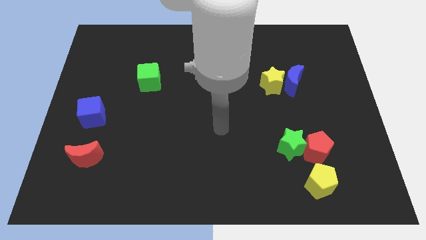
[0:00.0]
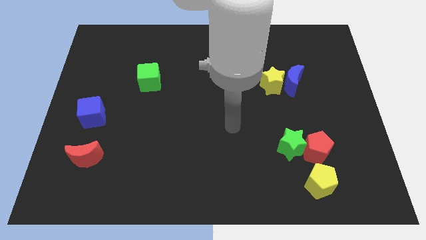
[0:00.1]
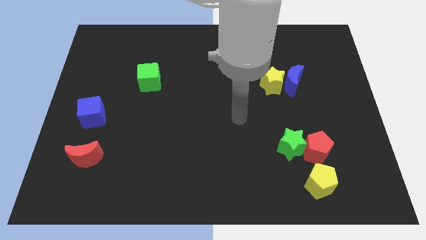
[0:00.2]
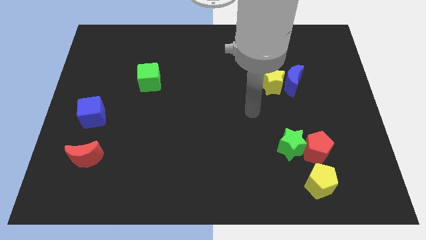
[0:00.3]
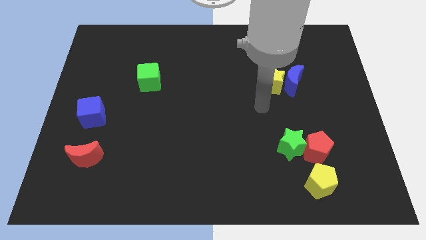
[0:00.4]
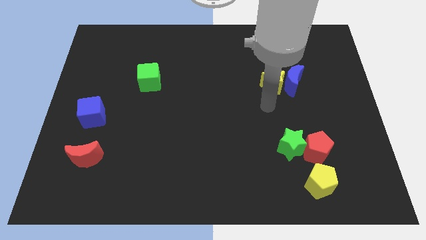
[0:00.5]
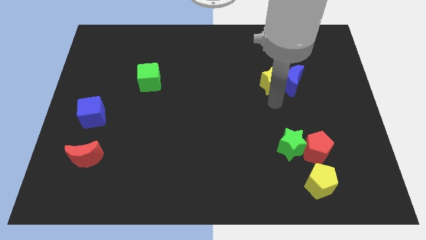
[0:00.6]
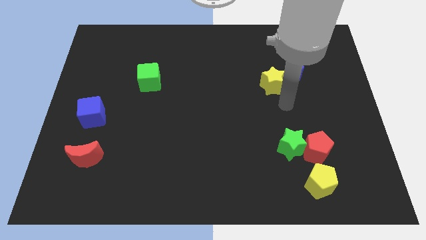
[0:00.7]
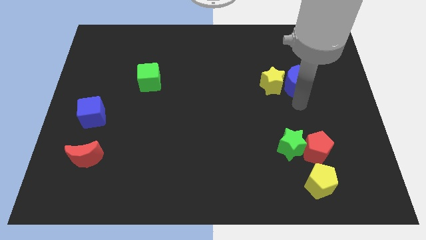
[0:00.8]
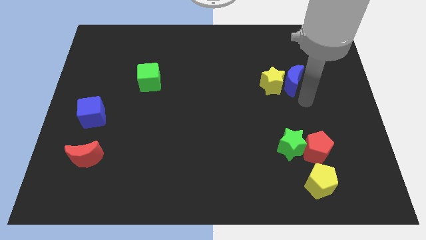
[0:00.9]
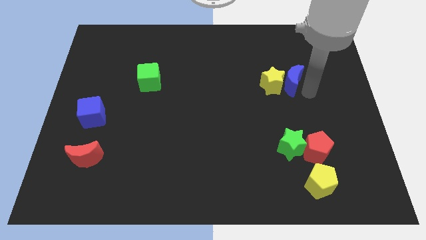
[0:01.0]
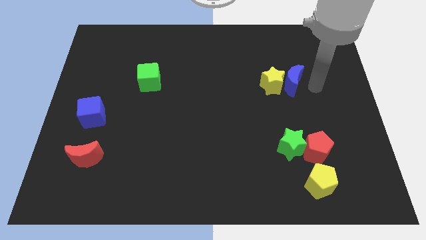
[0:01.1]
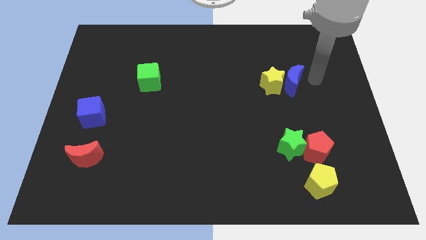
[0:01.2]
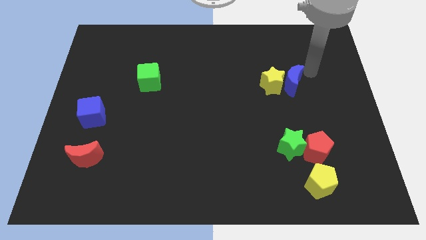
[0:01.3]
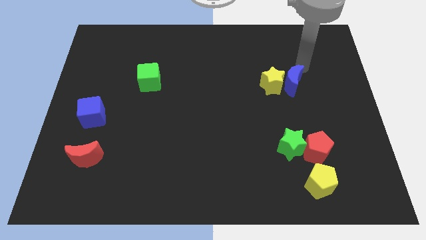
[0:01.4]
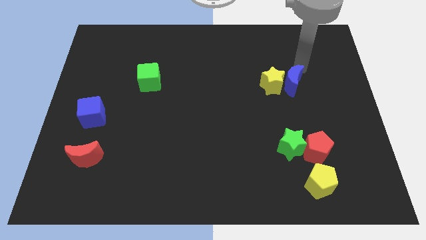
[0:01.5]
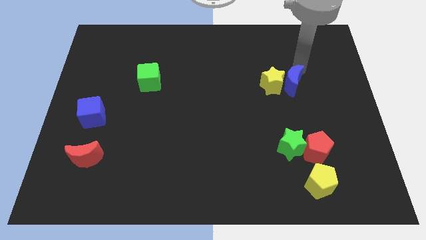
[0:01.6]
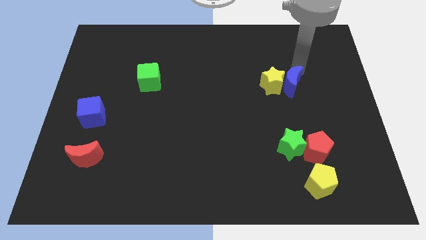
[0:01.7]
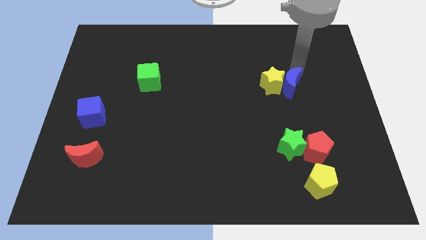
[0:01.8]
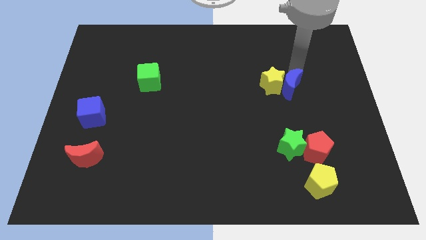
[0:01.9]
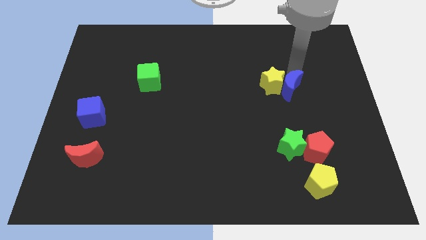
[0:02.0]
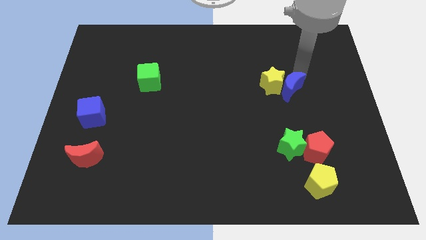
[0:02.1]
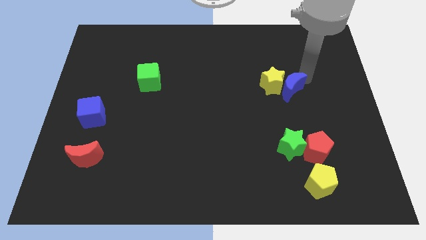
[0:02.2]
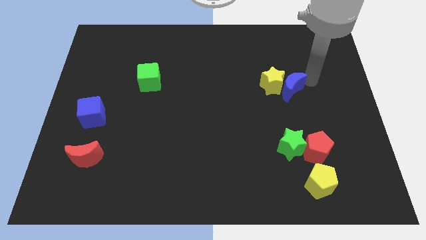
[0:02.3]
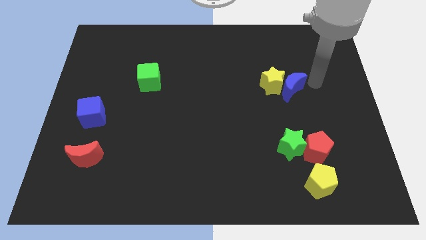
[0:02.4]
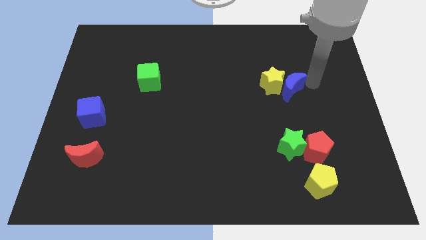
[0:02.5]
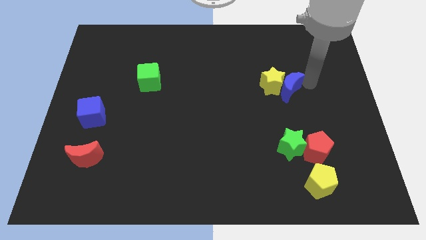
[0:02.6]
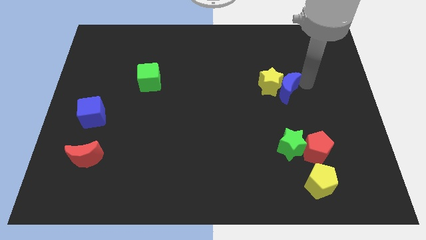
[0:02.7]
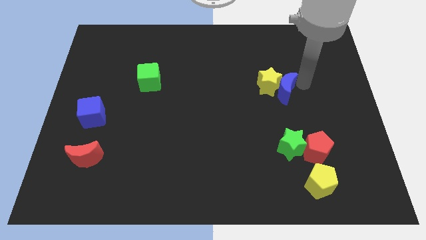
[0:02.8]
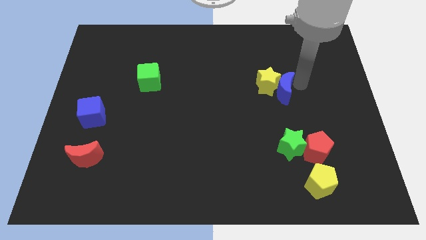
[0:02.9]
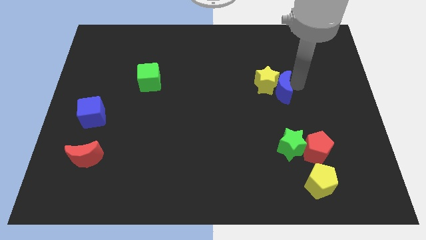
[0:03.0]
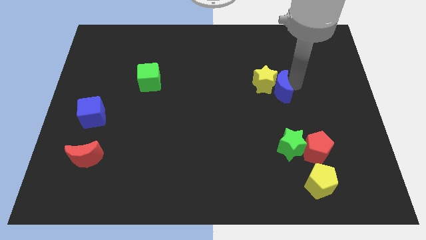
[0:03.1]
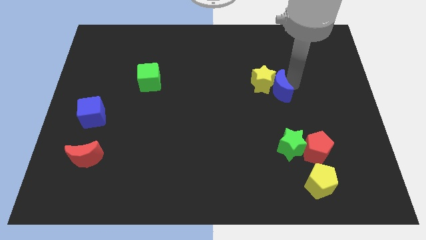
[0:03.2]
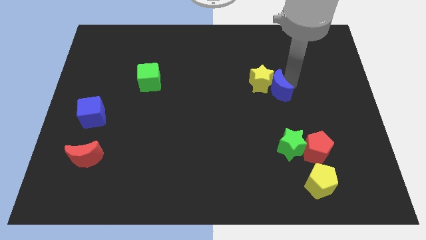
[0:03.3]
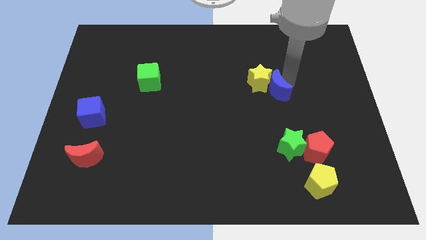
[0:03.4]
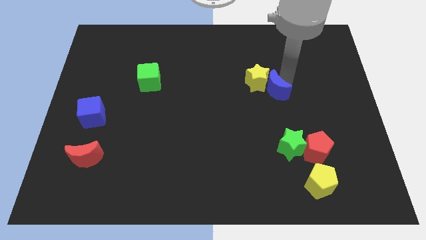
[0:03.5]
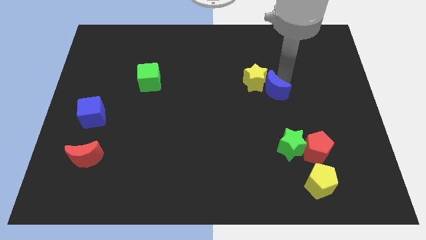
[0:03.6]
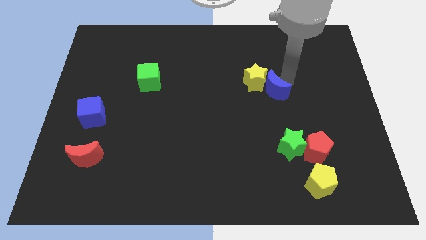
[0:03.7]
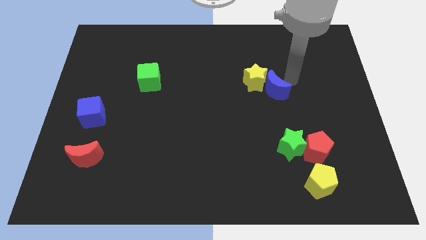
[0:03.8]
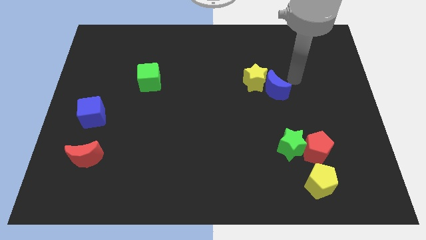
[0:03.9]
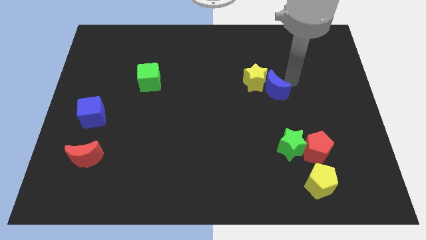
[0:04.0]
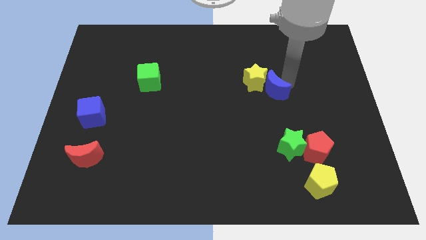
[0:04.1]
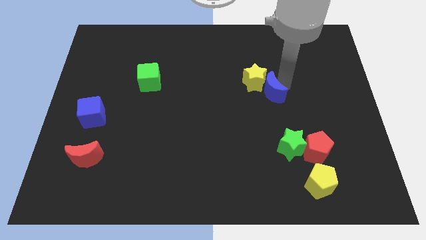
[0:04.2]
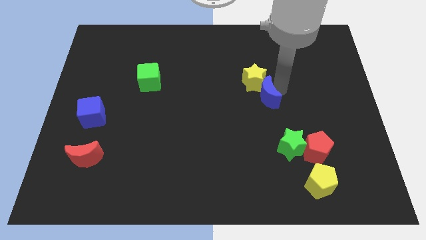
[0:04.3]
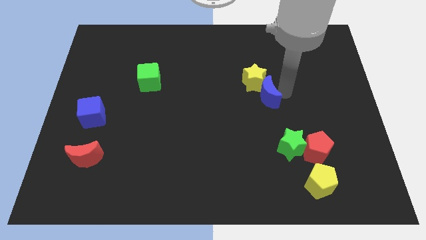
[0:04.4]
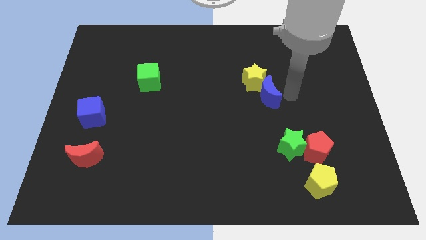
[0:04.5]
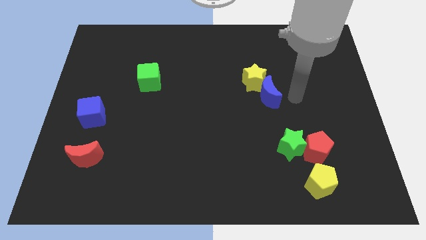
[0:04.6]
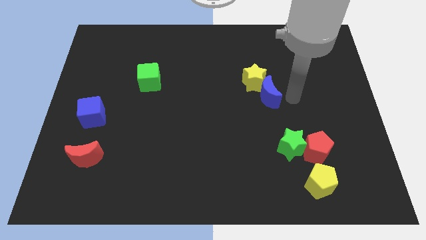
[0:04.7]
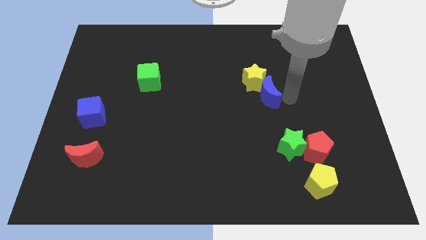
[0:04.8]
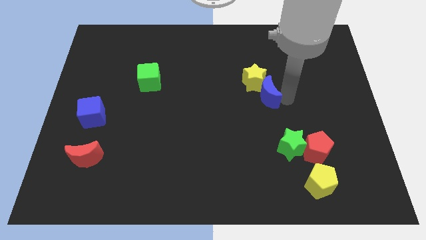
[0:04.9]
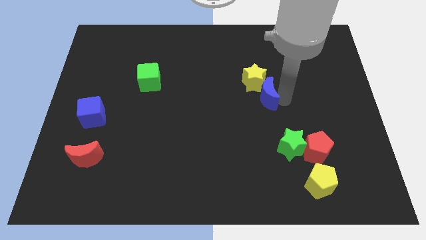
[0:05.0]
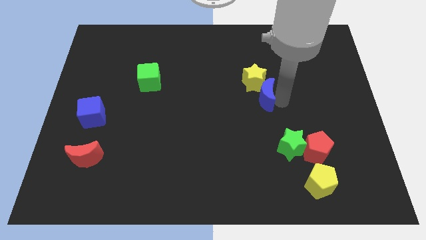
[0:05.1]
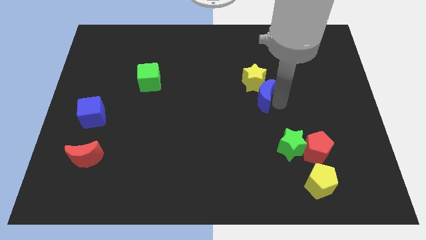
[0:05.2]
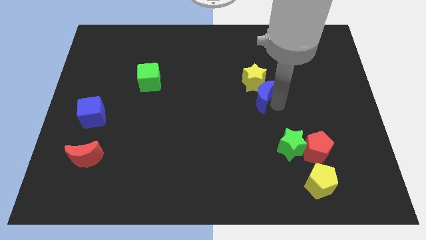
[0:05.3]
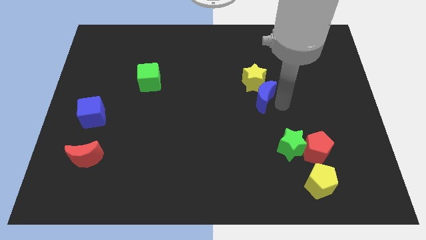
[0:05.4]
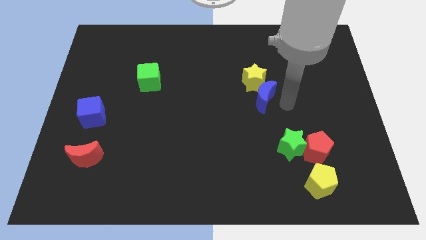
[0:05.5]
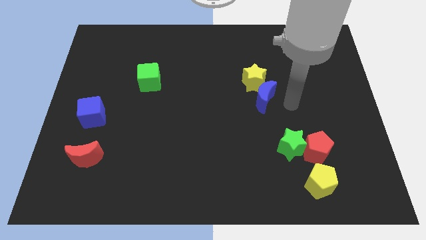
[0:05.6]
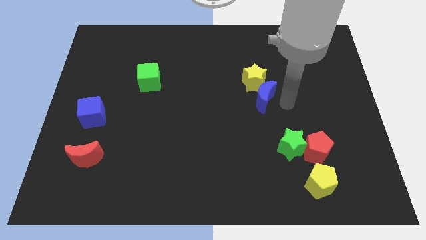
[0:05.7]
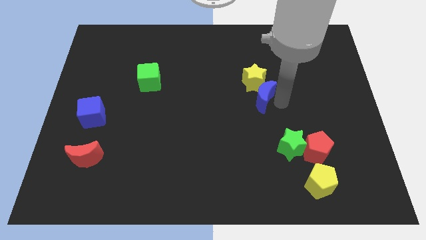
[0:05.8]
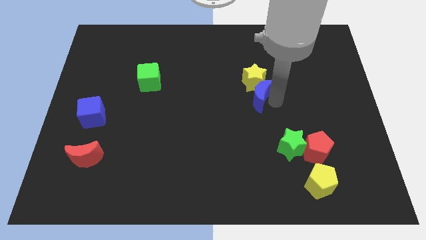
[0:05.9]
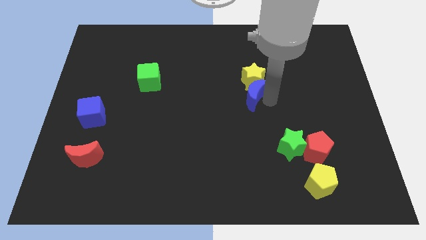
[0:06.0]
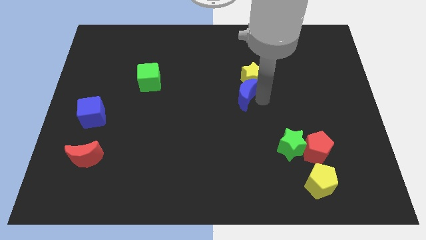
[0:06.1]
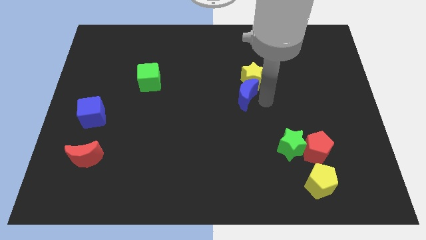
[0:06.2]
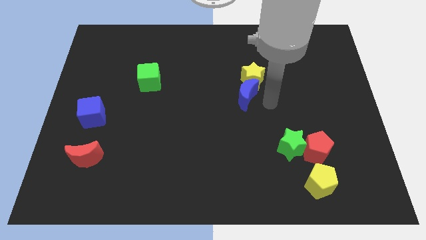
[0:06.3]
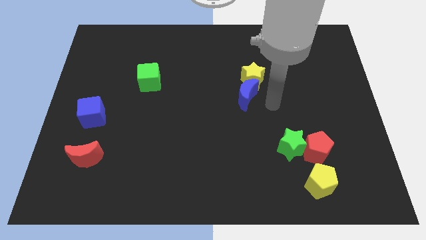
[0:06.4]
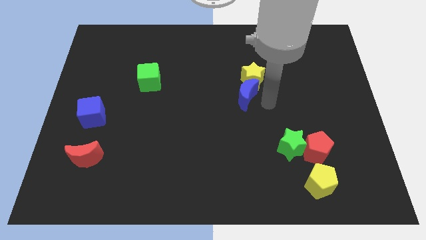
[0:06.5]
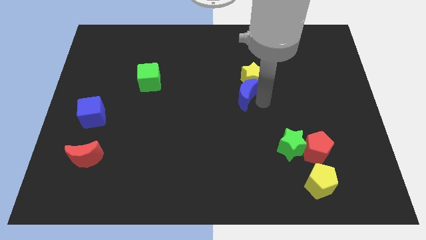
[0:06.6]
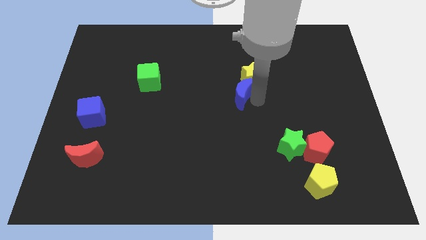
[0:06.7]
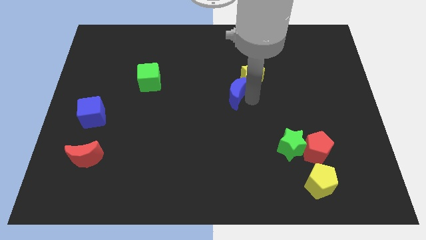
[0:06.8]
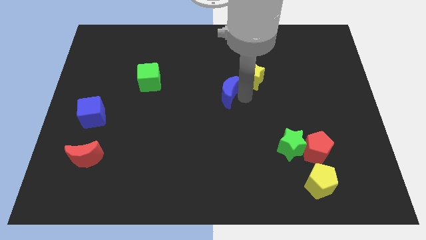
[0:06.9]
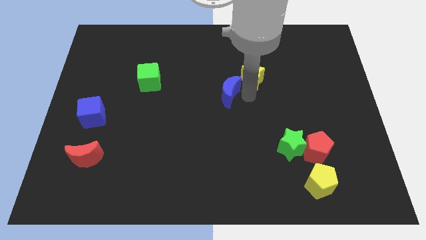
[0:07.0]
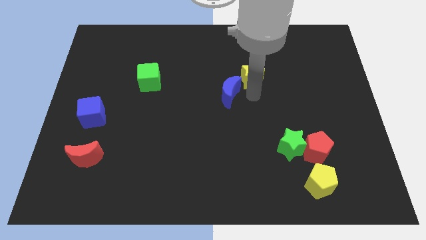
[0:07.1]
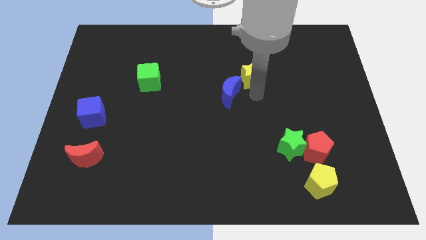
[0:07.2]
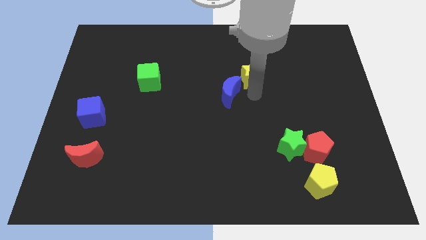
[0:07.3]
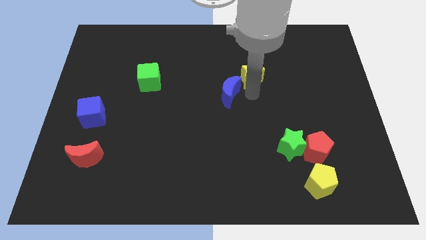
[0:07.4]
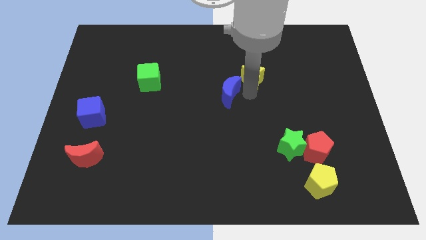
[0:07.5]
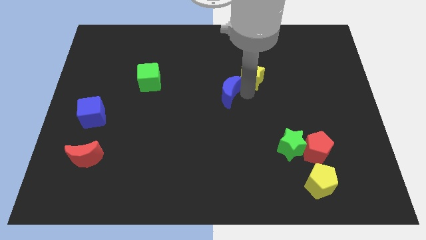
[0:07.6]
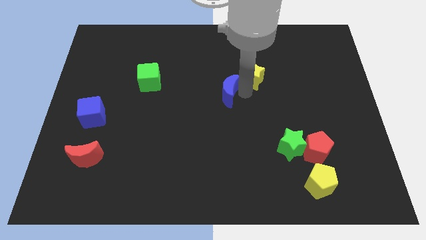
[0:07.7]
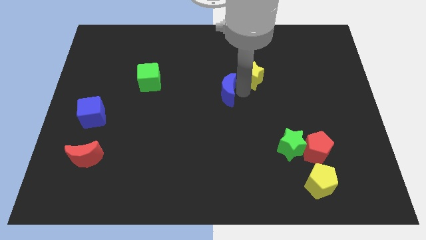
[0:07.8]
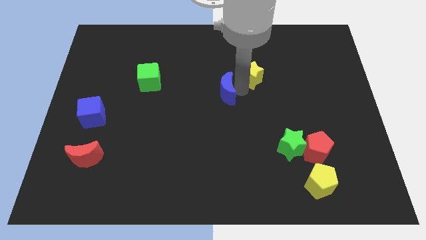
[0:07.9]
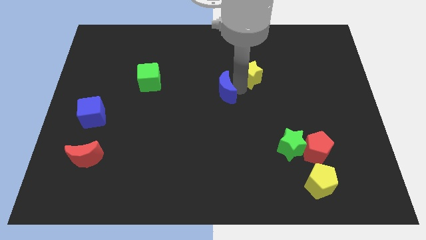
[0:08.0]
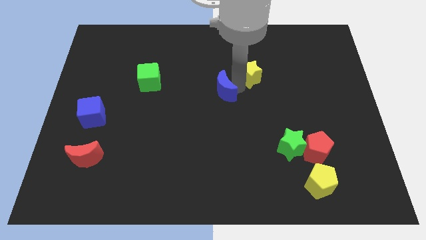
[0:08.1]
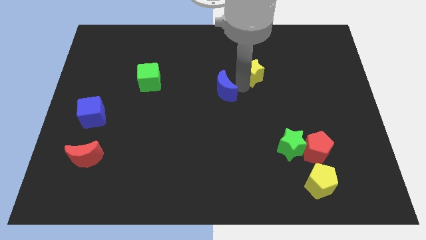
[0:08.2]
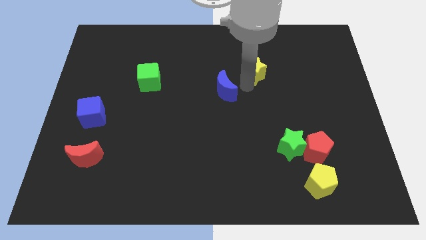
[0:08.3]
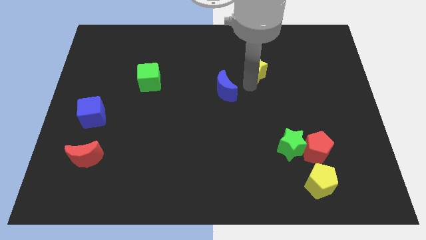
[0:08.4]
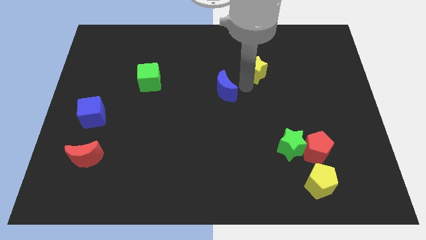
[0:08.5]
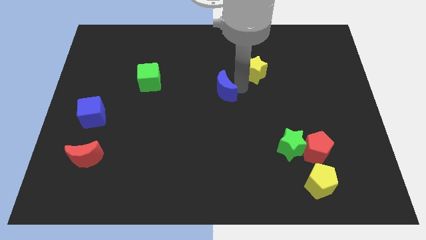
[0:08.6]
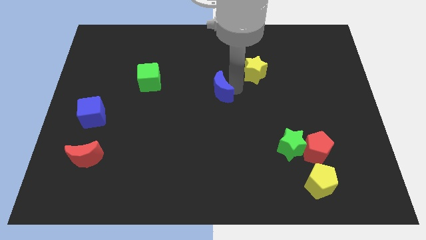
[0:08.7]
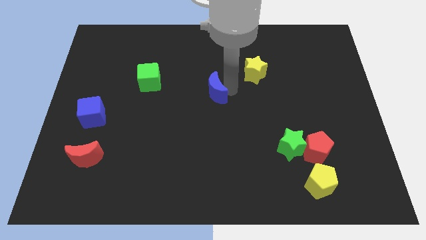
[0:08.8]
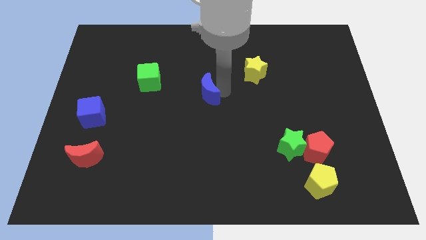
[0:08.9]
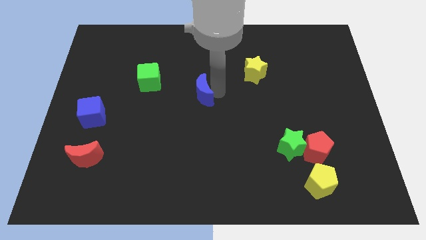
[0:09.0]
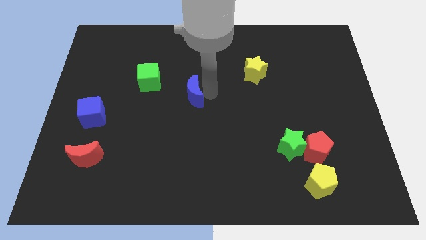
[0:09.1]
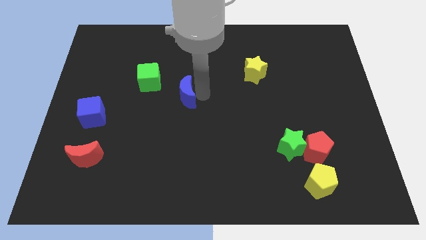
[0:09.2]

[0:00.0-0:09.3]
push the blue moon to the bottom right side of the green cube
